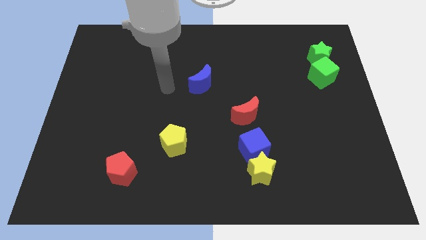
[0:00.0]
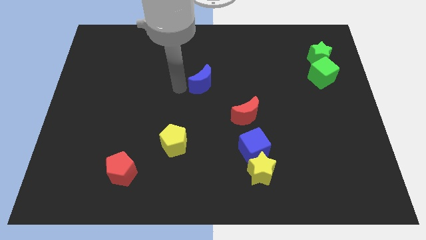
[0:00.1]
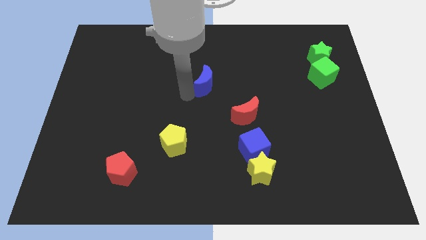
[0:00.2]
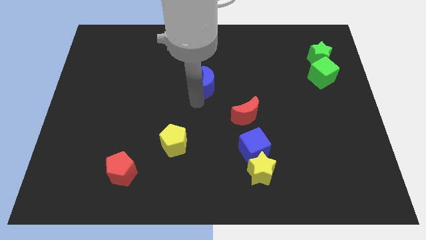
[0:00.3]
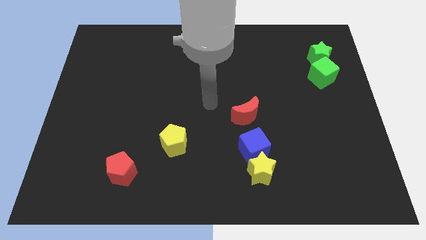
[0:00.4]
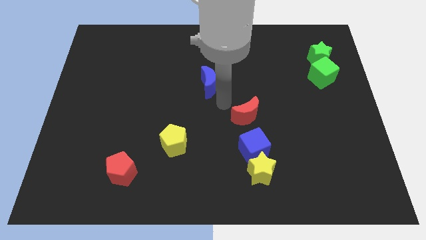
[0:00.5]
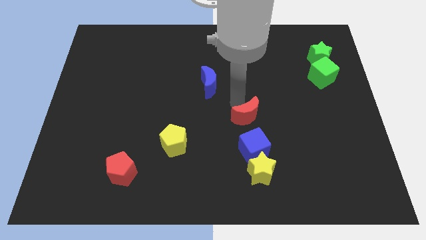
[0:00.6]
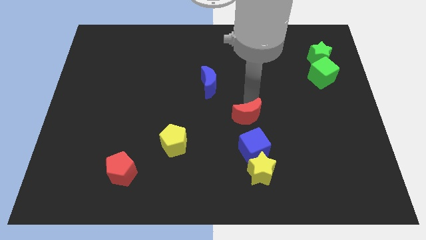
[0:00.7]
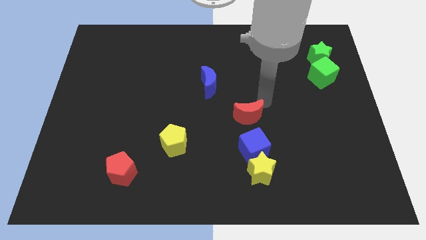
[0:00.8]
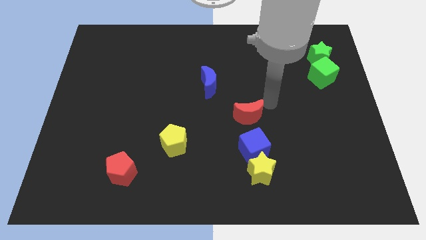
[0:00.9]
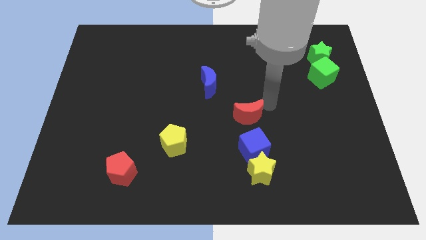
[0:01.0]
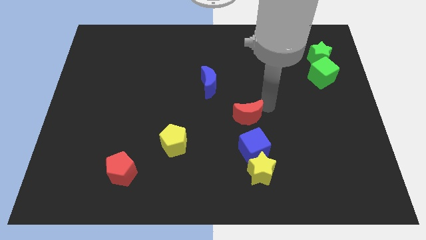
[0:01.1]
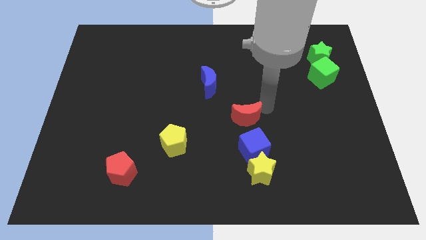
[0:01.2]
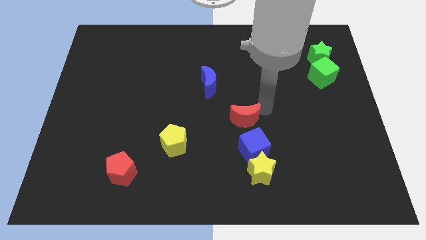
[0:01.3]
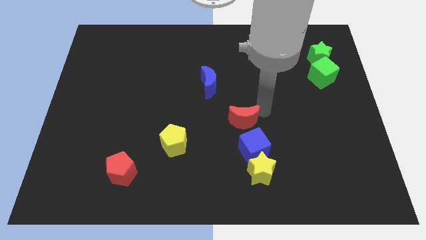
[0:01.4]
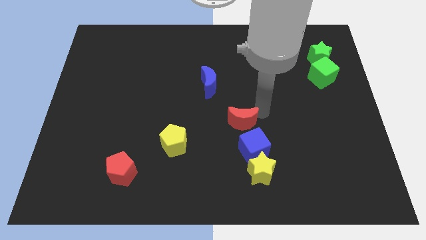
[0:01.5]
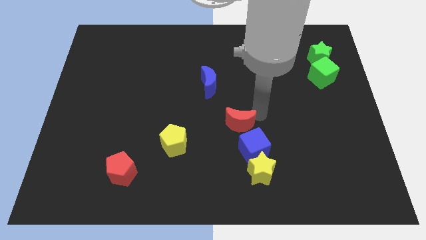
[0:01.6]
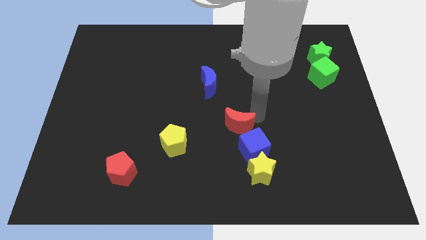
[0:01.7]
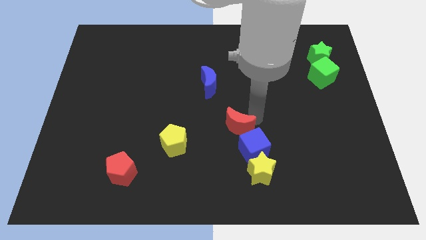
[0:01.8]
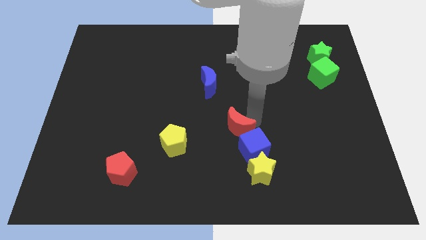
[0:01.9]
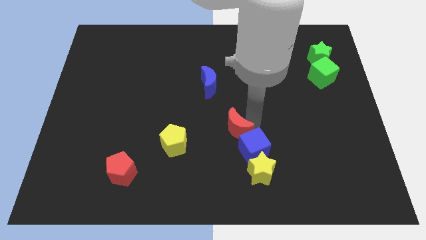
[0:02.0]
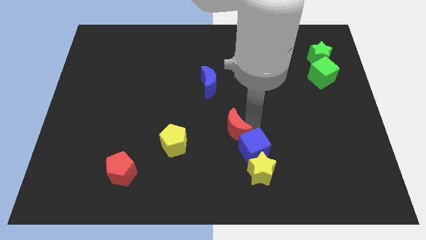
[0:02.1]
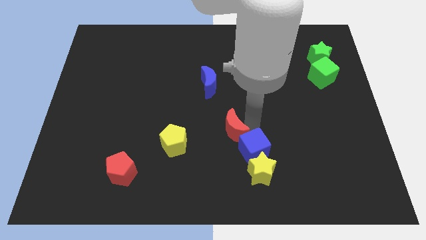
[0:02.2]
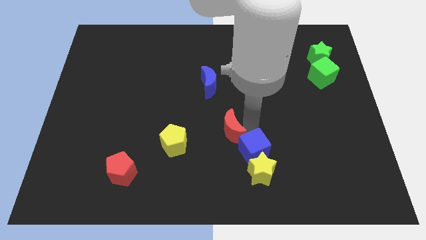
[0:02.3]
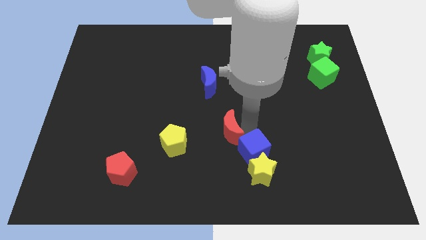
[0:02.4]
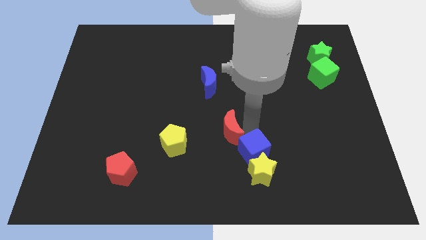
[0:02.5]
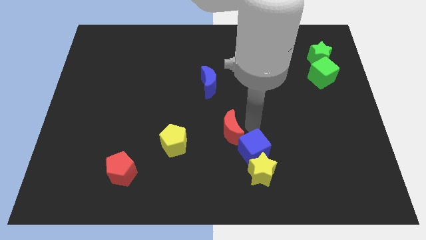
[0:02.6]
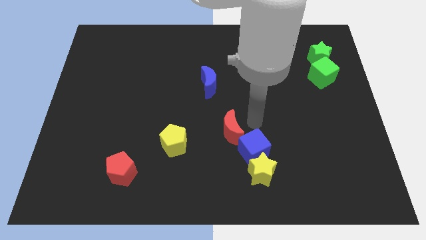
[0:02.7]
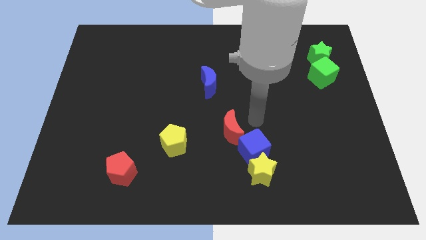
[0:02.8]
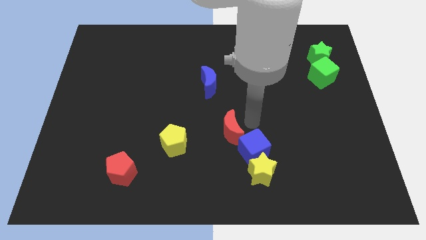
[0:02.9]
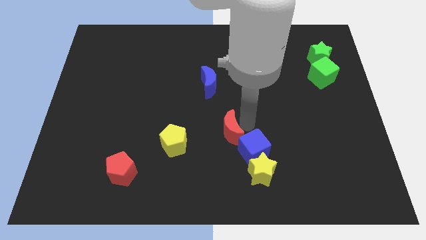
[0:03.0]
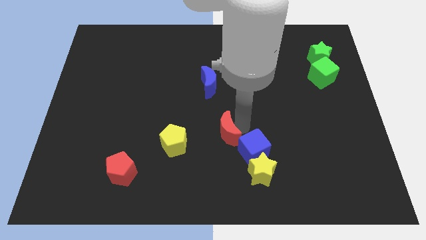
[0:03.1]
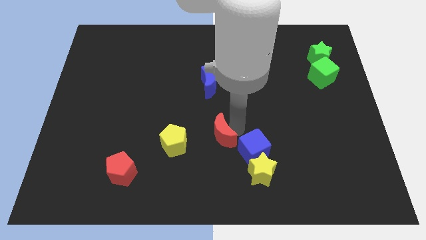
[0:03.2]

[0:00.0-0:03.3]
move the red moon down and to the left diagonally slightly

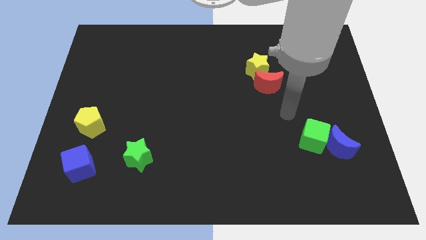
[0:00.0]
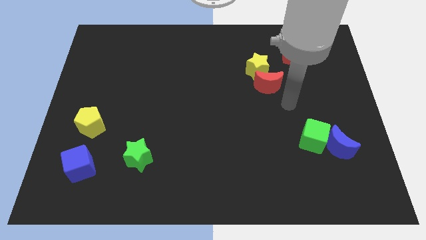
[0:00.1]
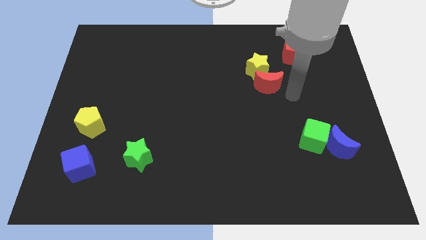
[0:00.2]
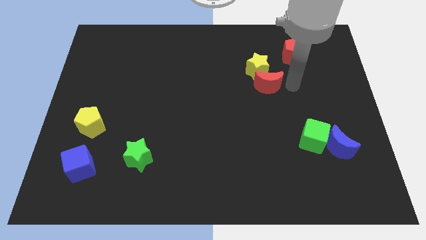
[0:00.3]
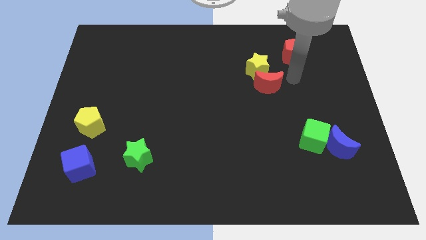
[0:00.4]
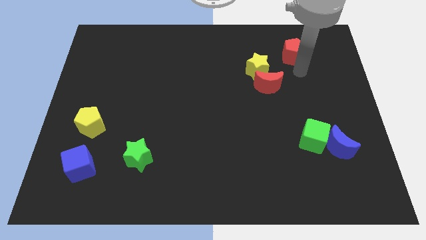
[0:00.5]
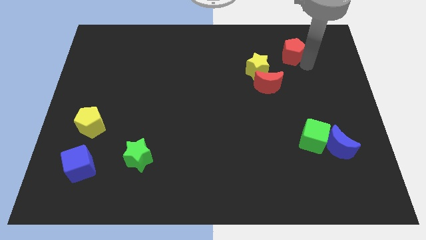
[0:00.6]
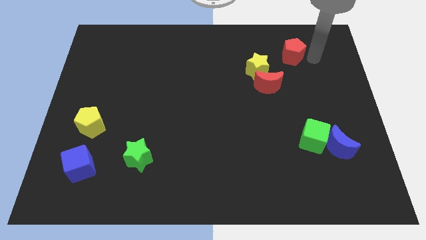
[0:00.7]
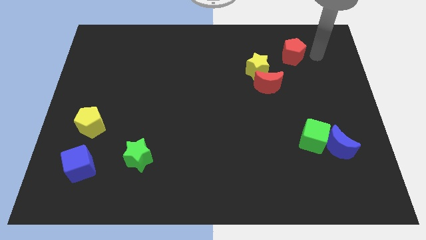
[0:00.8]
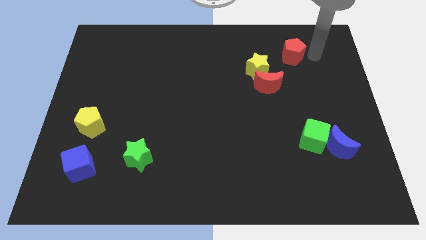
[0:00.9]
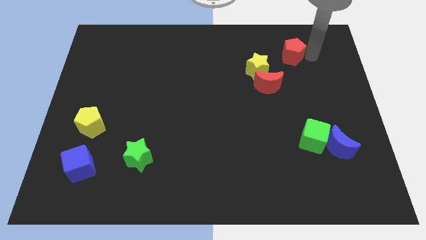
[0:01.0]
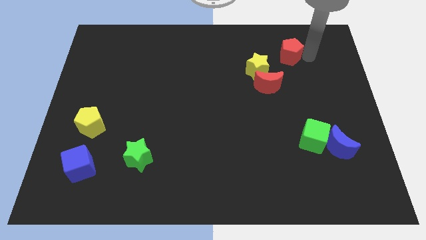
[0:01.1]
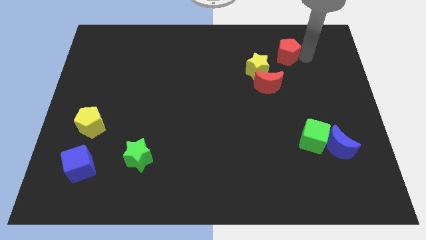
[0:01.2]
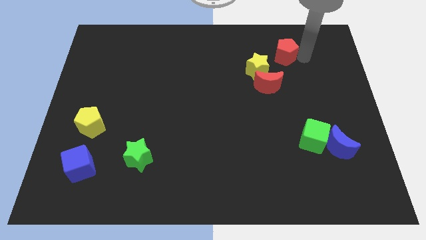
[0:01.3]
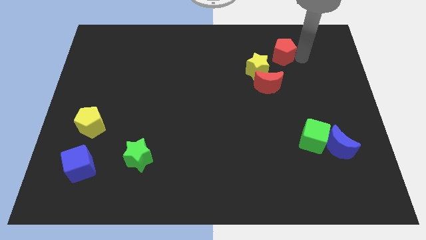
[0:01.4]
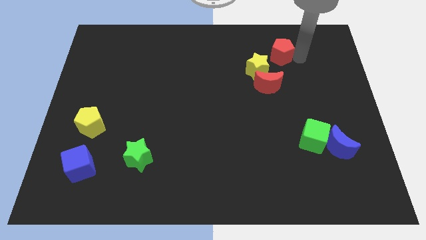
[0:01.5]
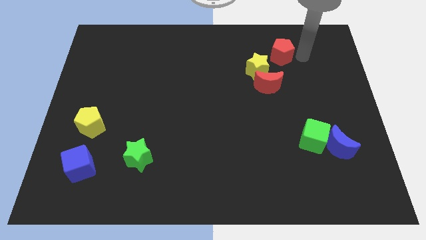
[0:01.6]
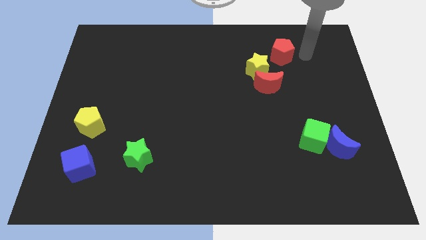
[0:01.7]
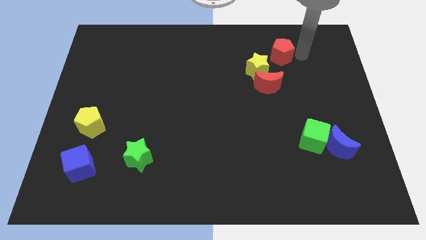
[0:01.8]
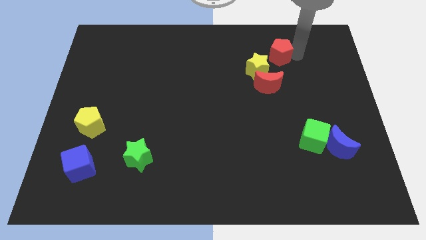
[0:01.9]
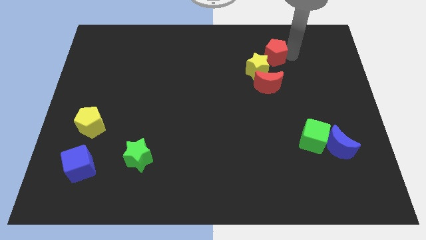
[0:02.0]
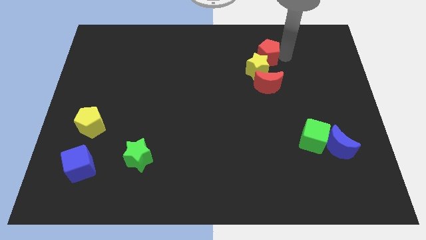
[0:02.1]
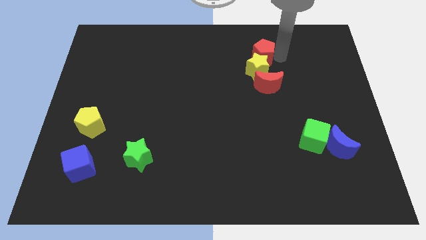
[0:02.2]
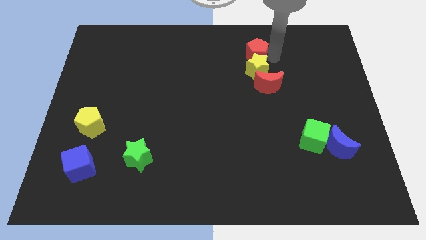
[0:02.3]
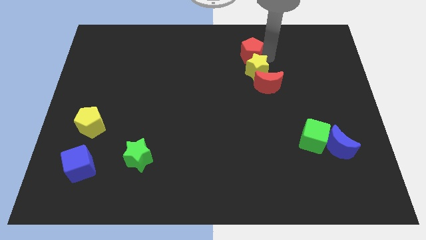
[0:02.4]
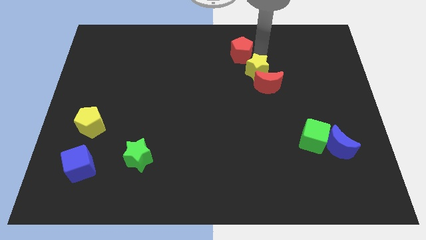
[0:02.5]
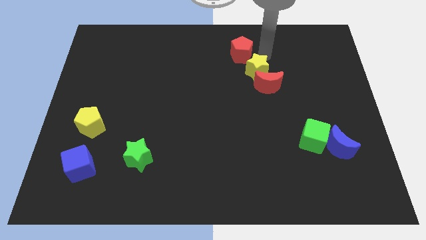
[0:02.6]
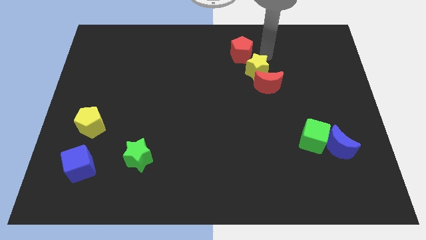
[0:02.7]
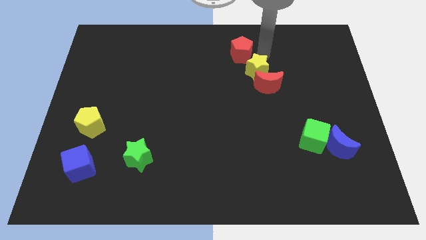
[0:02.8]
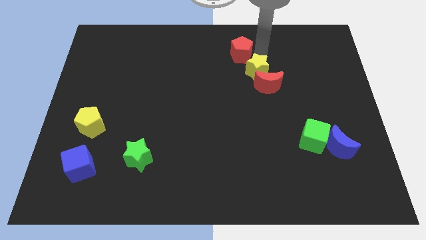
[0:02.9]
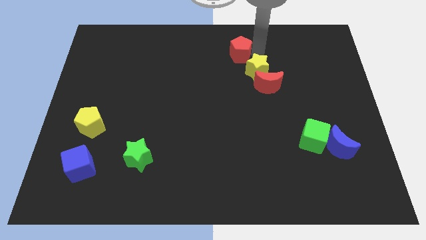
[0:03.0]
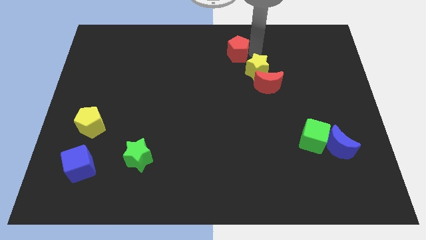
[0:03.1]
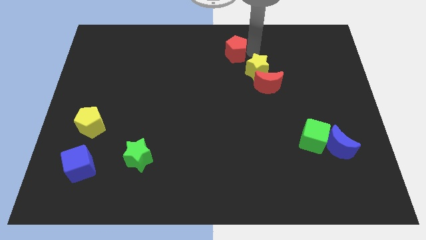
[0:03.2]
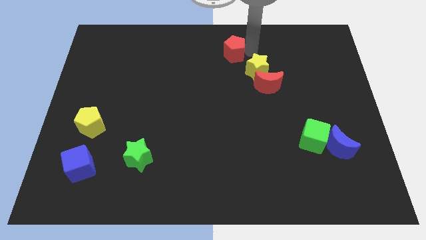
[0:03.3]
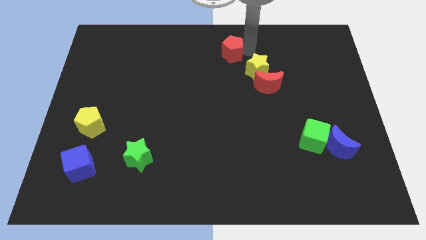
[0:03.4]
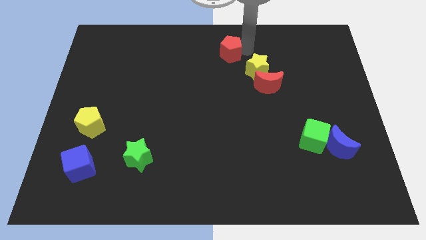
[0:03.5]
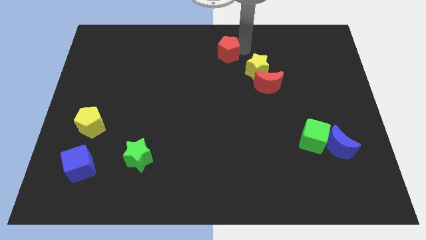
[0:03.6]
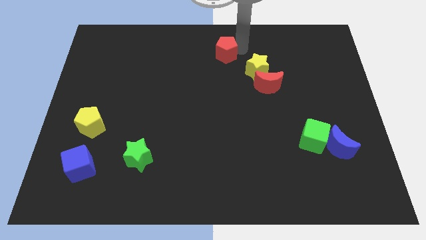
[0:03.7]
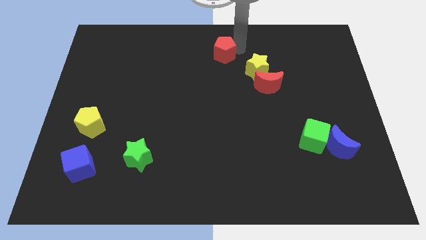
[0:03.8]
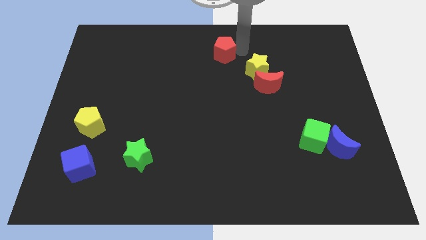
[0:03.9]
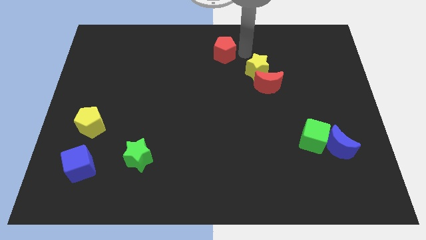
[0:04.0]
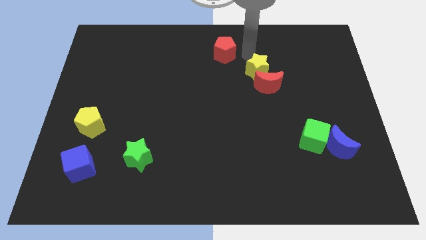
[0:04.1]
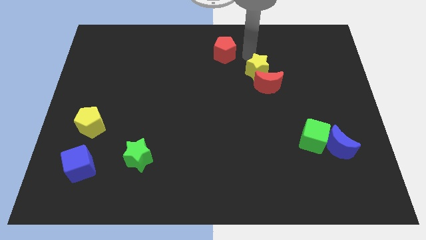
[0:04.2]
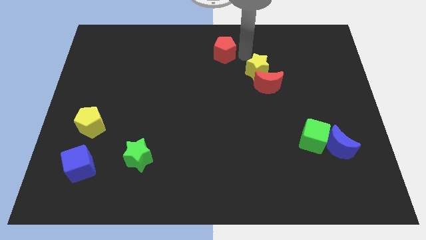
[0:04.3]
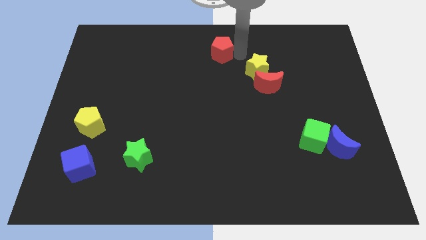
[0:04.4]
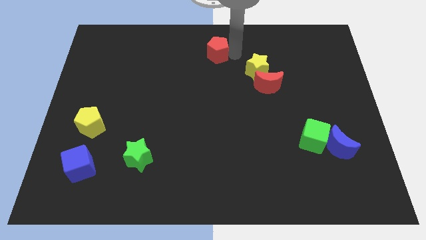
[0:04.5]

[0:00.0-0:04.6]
push the red pentagon to the left

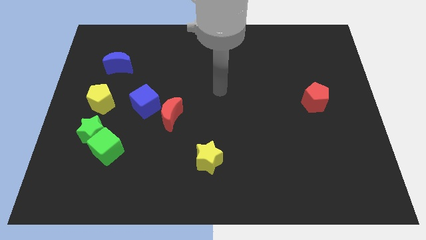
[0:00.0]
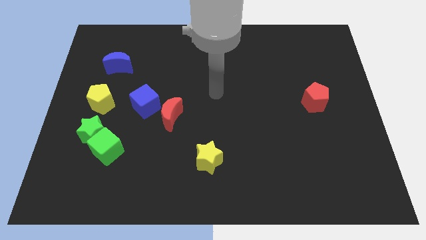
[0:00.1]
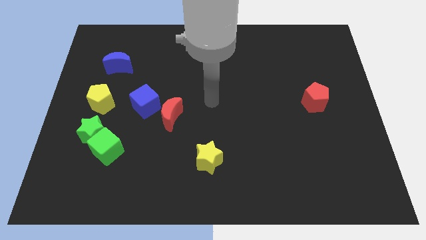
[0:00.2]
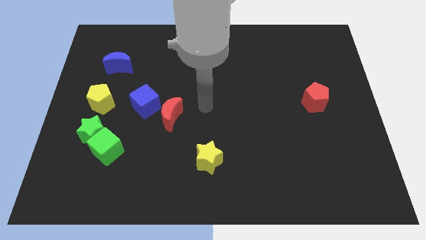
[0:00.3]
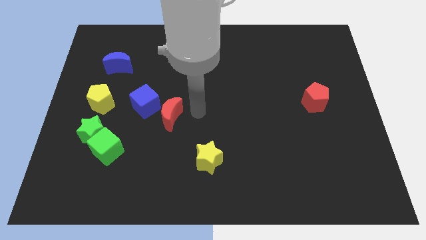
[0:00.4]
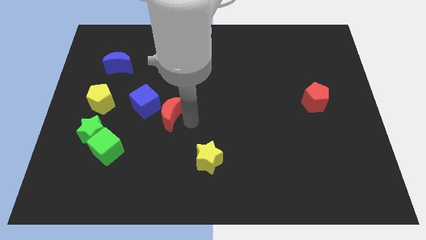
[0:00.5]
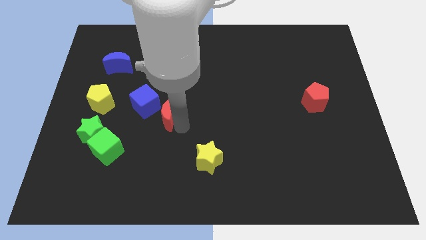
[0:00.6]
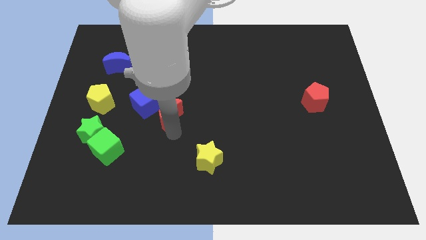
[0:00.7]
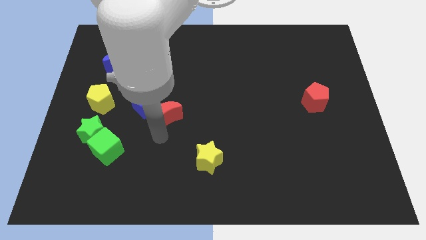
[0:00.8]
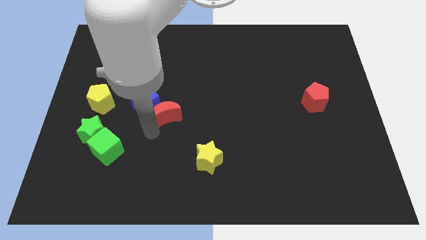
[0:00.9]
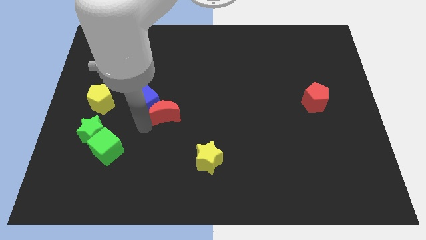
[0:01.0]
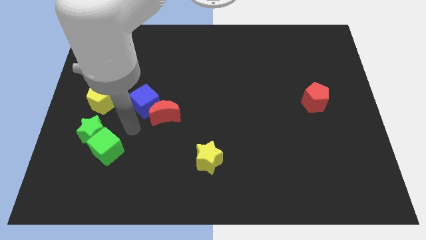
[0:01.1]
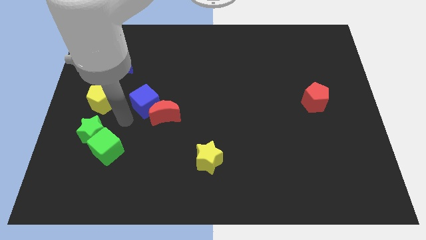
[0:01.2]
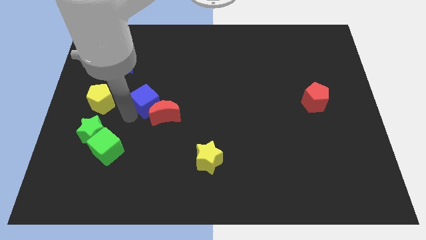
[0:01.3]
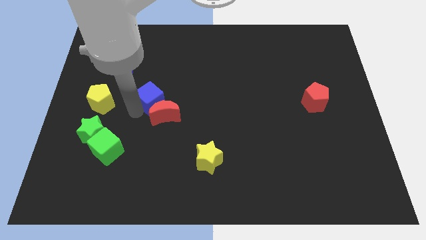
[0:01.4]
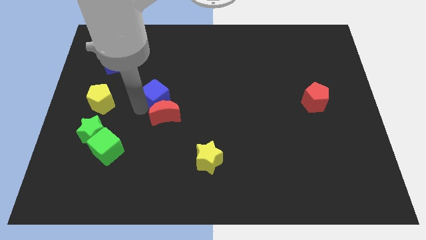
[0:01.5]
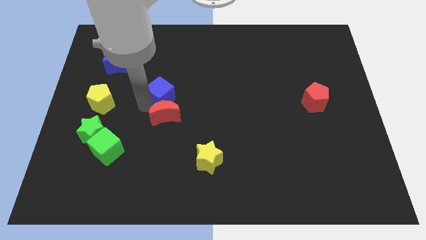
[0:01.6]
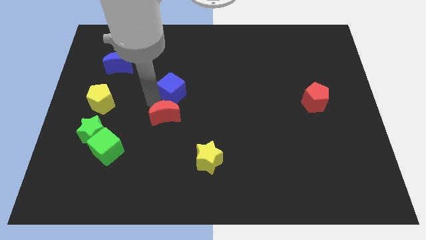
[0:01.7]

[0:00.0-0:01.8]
push the blue cube up and to the right slightly
